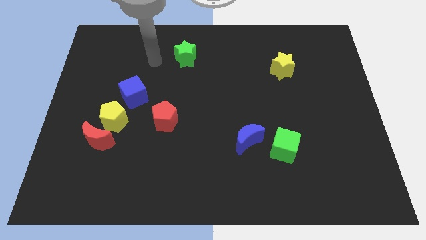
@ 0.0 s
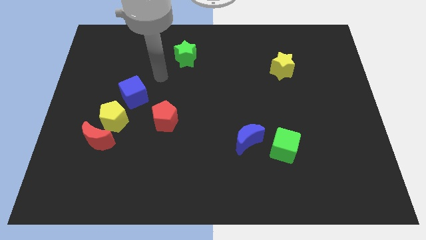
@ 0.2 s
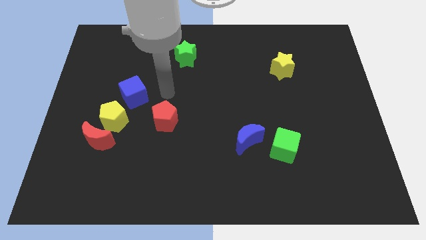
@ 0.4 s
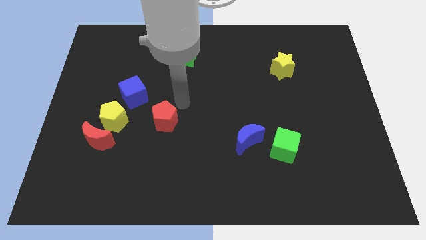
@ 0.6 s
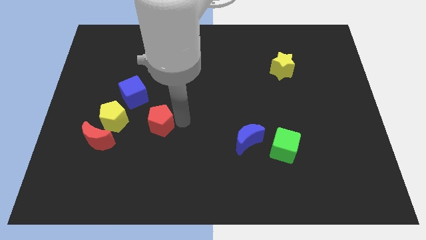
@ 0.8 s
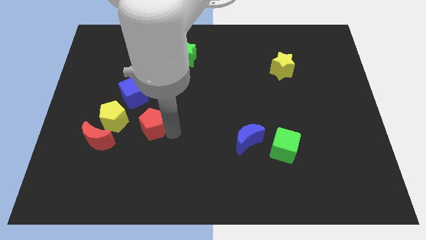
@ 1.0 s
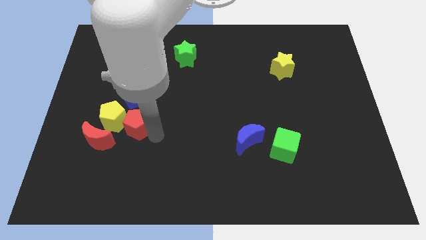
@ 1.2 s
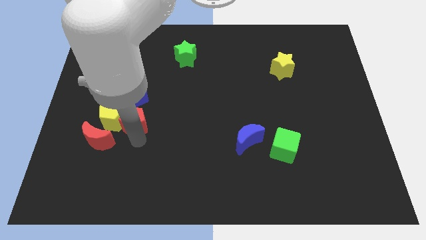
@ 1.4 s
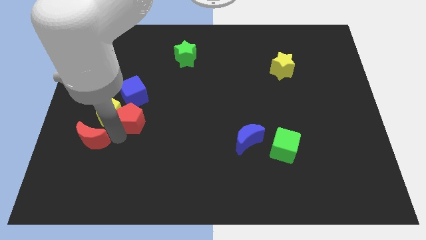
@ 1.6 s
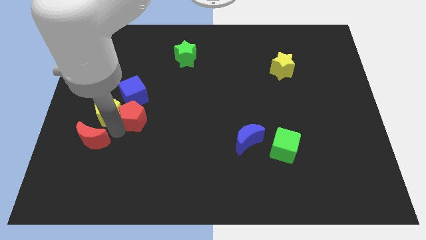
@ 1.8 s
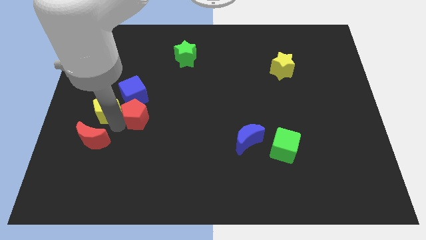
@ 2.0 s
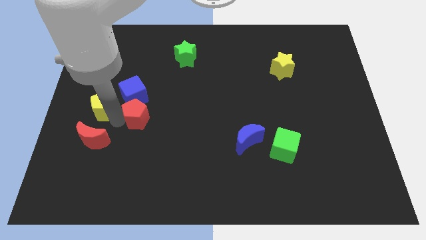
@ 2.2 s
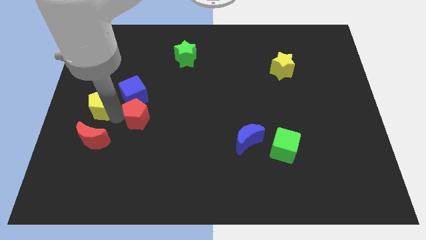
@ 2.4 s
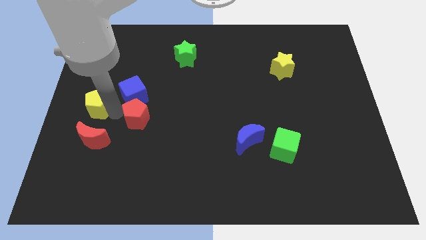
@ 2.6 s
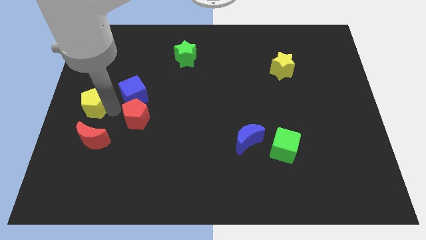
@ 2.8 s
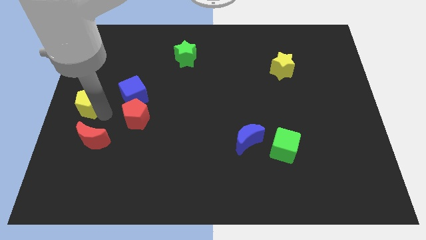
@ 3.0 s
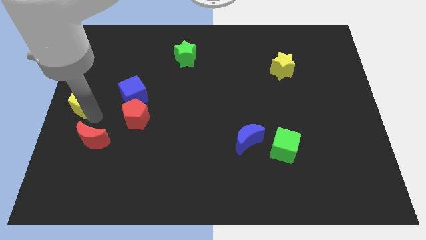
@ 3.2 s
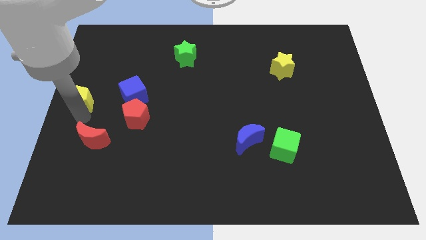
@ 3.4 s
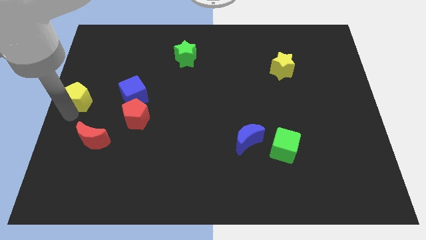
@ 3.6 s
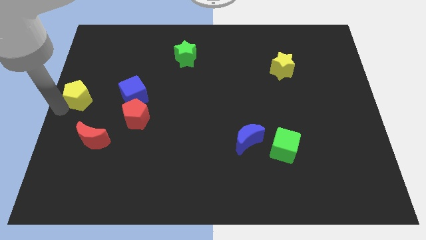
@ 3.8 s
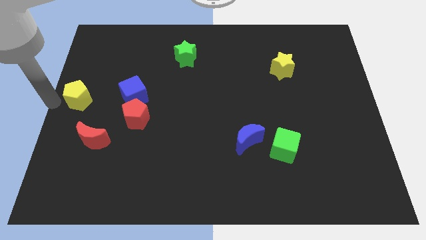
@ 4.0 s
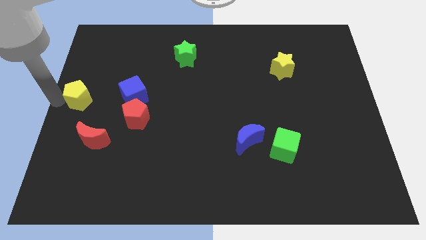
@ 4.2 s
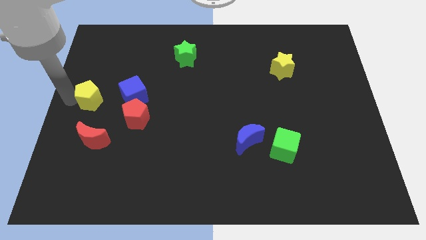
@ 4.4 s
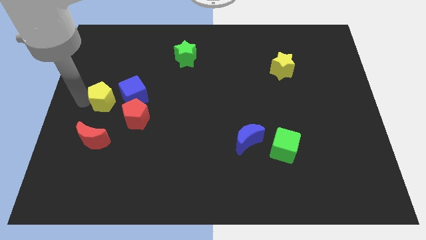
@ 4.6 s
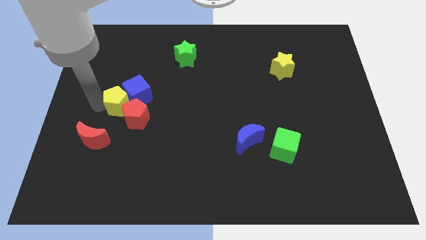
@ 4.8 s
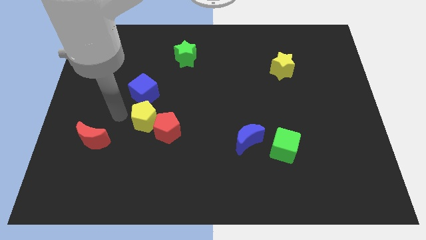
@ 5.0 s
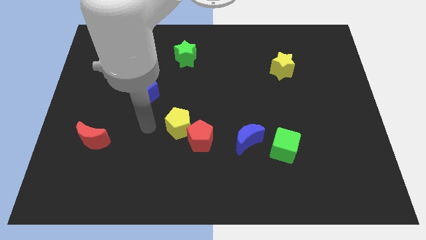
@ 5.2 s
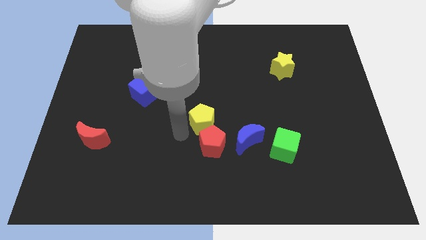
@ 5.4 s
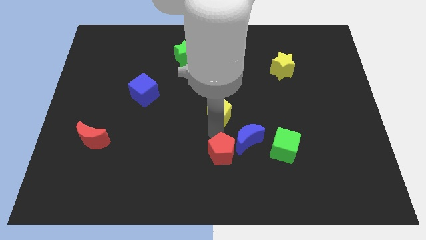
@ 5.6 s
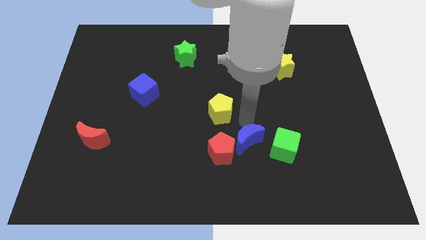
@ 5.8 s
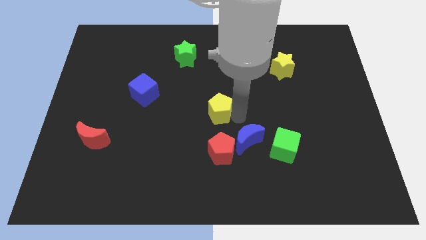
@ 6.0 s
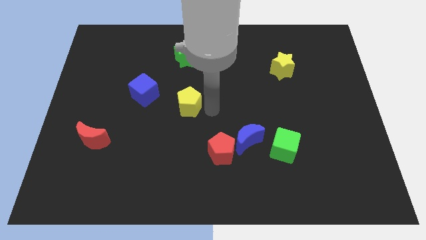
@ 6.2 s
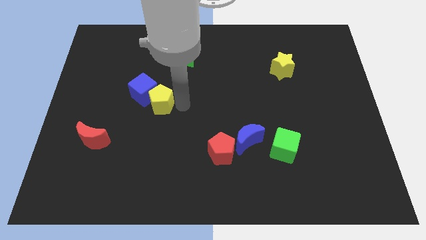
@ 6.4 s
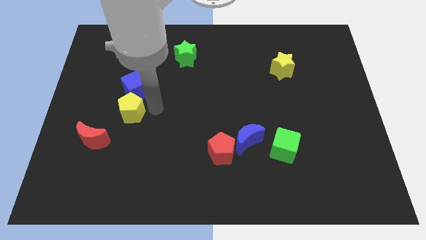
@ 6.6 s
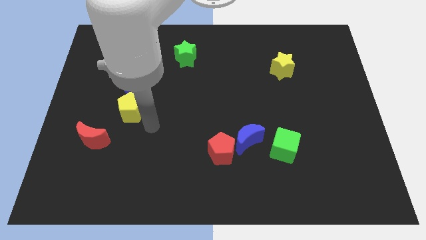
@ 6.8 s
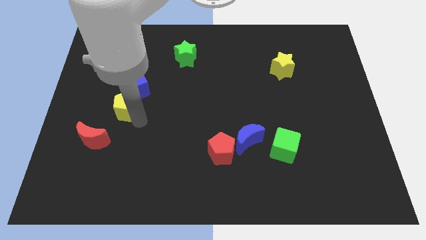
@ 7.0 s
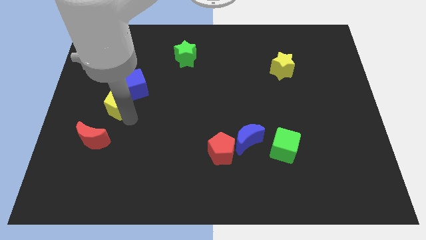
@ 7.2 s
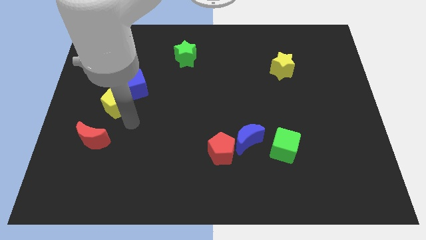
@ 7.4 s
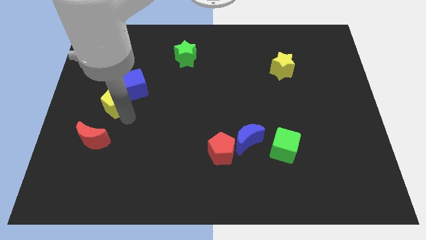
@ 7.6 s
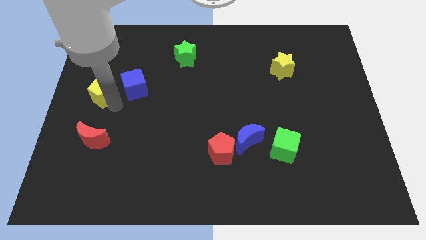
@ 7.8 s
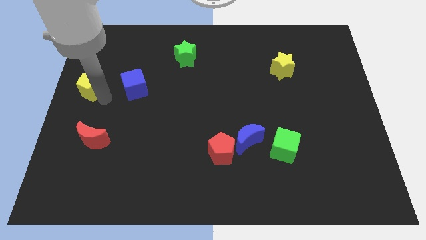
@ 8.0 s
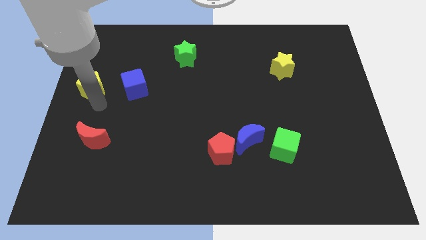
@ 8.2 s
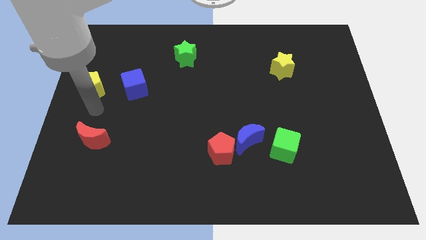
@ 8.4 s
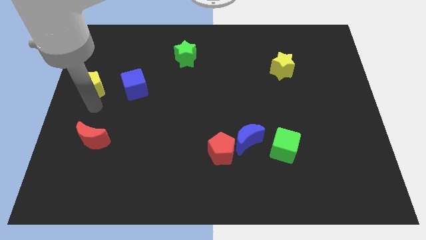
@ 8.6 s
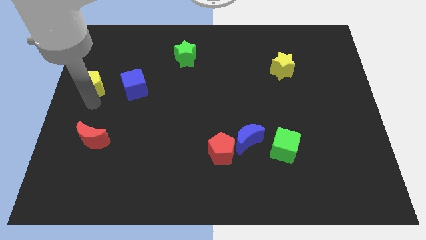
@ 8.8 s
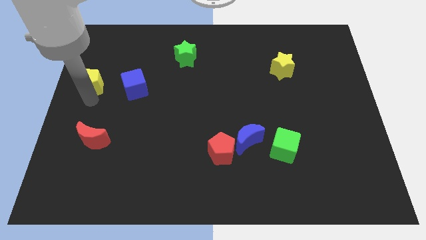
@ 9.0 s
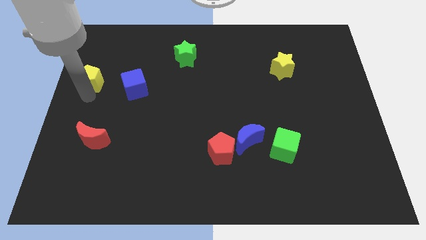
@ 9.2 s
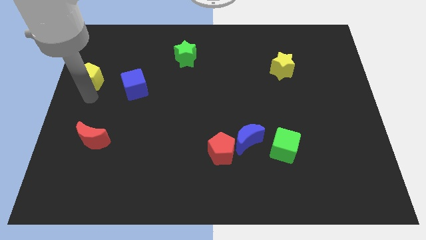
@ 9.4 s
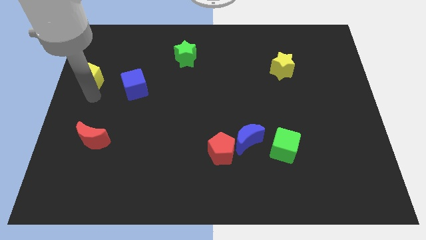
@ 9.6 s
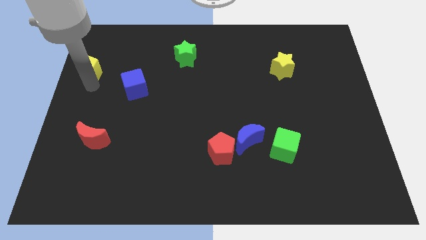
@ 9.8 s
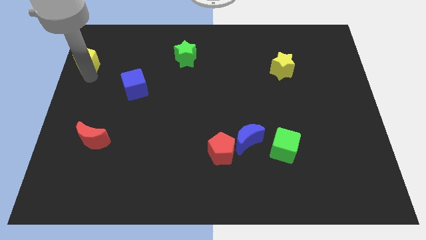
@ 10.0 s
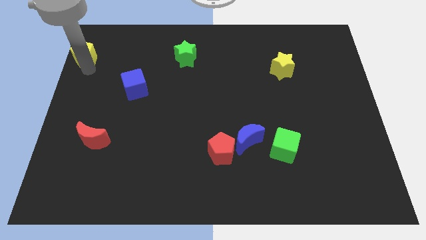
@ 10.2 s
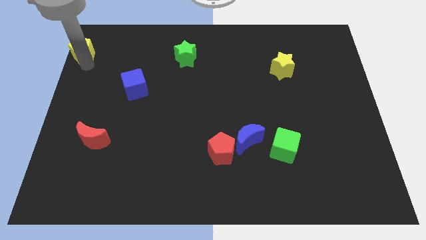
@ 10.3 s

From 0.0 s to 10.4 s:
push the yellow pentagon to the upper left corner

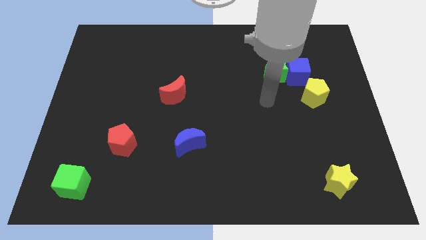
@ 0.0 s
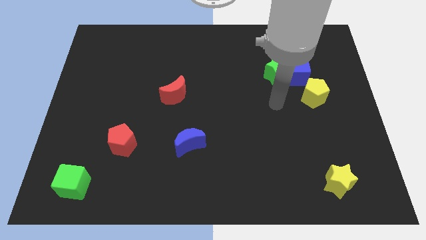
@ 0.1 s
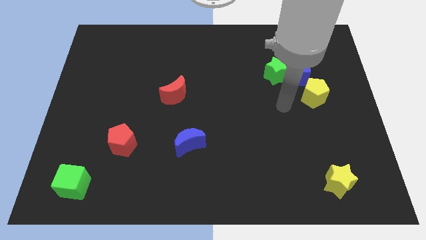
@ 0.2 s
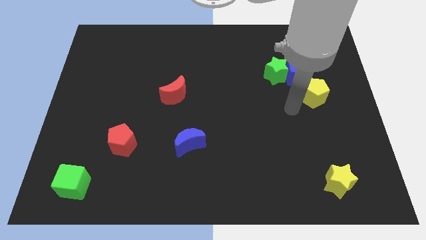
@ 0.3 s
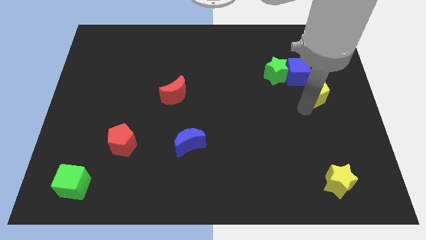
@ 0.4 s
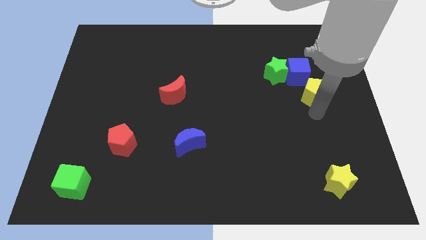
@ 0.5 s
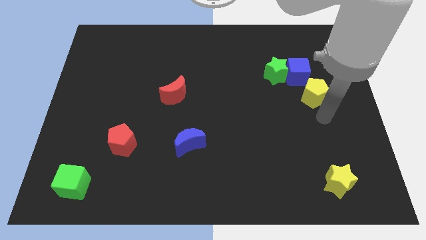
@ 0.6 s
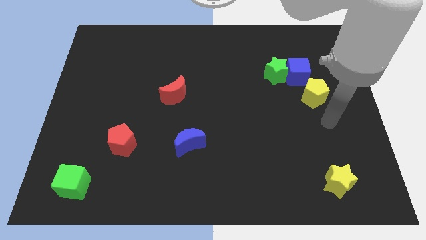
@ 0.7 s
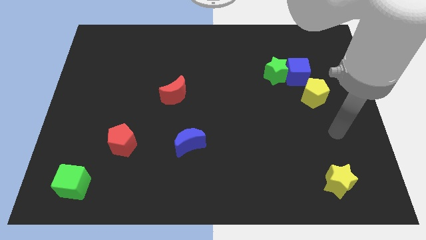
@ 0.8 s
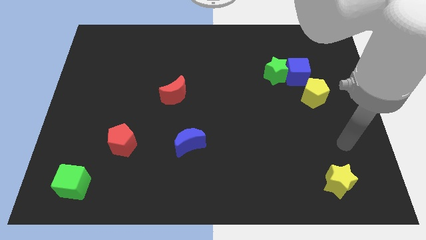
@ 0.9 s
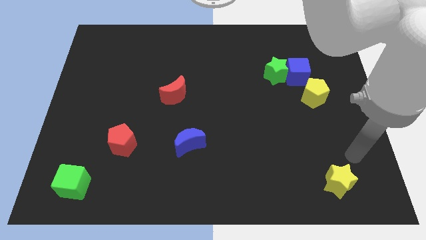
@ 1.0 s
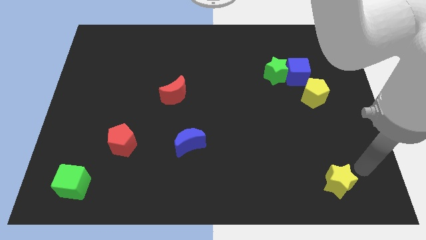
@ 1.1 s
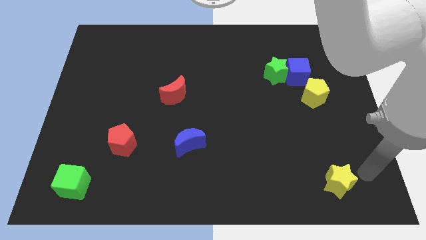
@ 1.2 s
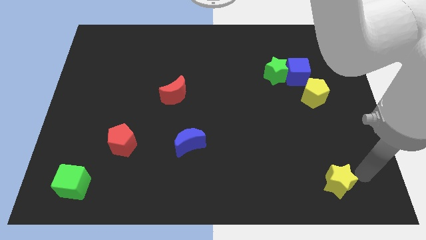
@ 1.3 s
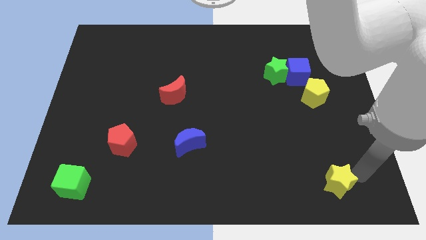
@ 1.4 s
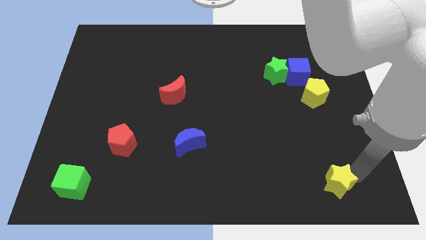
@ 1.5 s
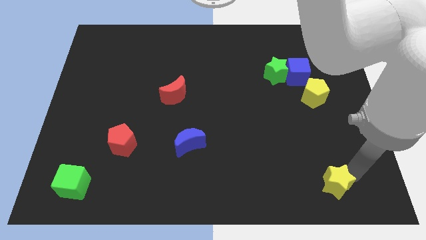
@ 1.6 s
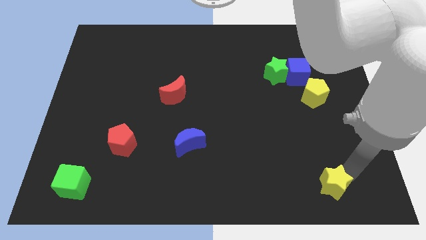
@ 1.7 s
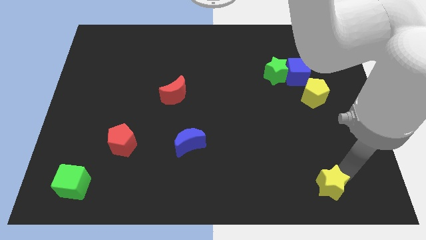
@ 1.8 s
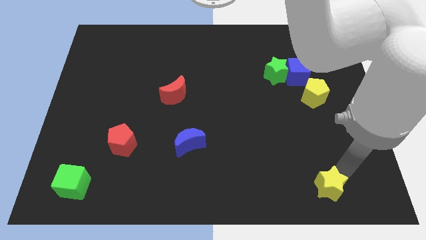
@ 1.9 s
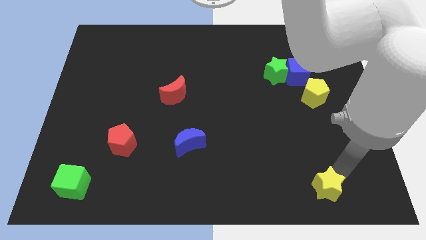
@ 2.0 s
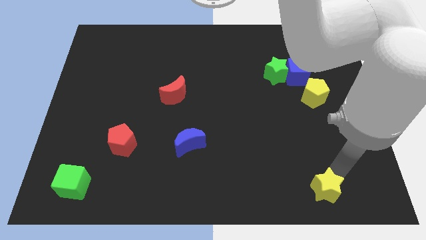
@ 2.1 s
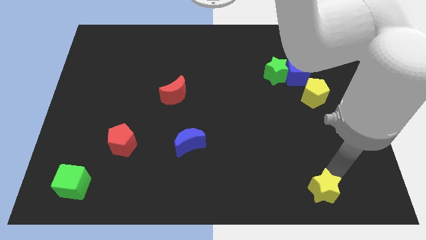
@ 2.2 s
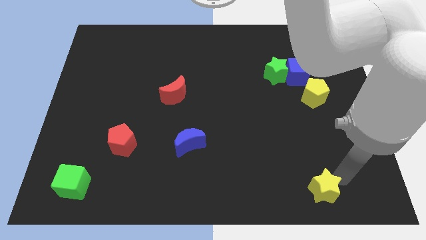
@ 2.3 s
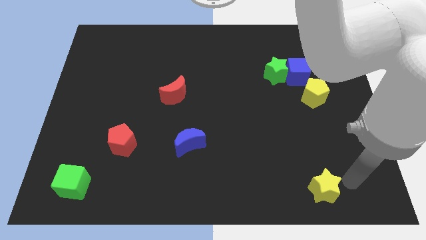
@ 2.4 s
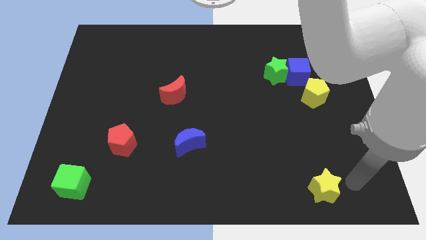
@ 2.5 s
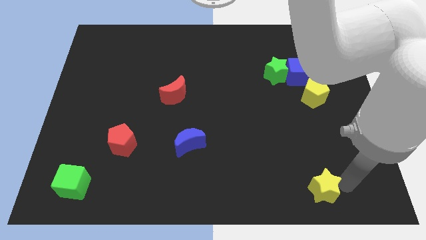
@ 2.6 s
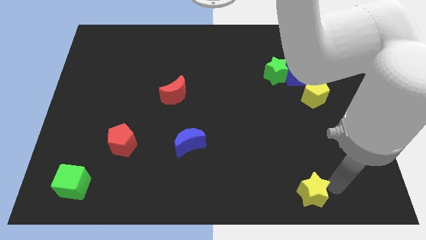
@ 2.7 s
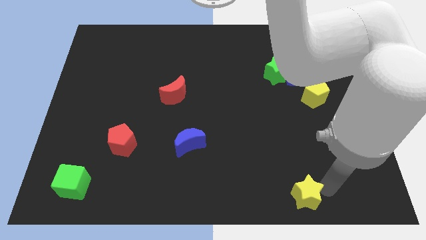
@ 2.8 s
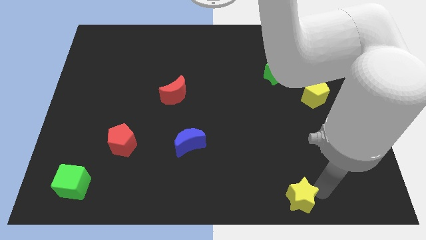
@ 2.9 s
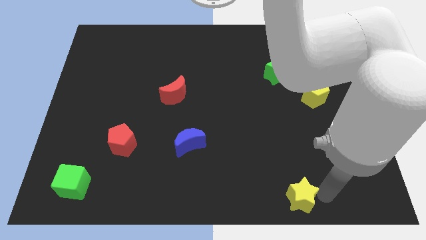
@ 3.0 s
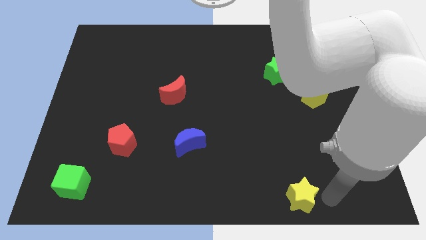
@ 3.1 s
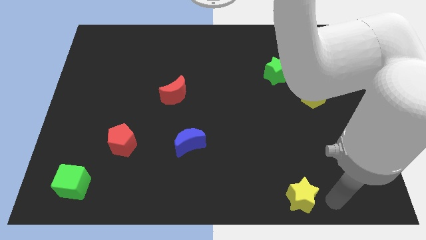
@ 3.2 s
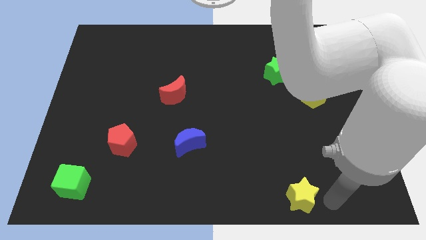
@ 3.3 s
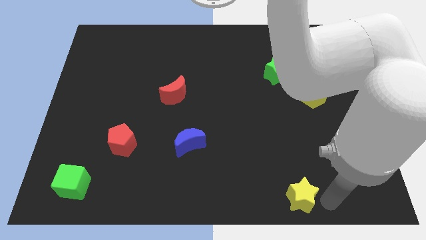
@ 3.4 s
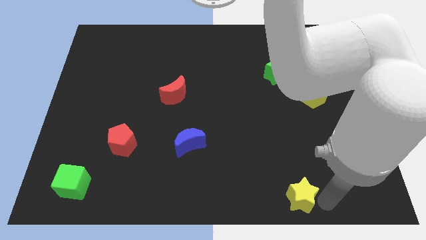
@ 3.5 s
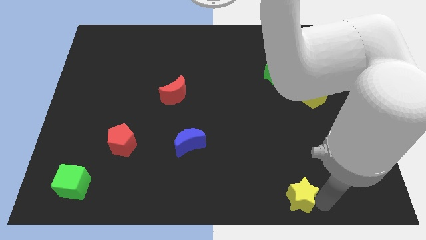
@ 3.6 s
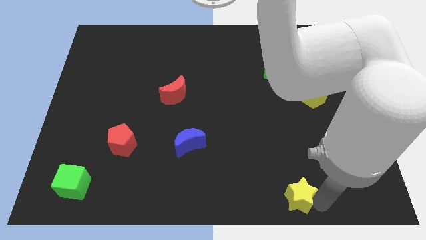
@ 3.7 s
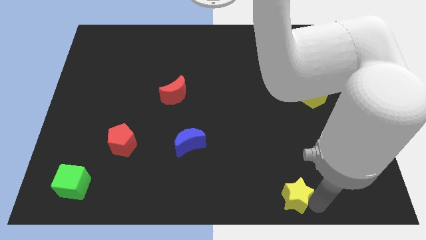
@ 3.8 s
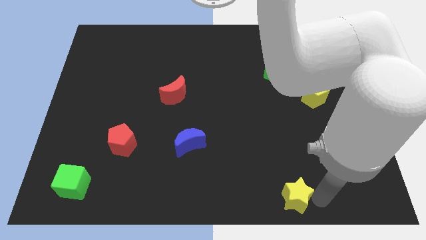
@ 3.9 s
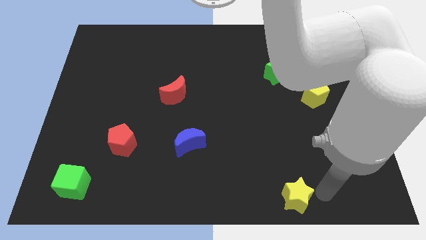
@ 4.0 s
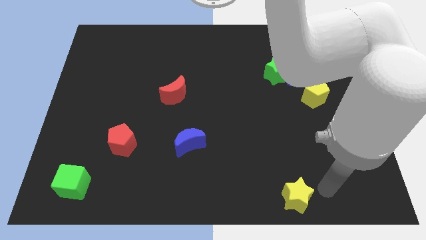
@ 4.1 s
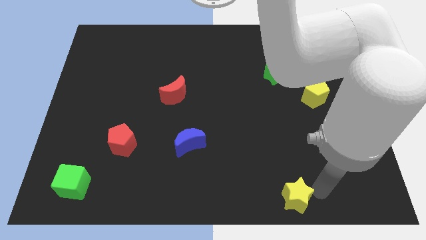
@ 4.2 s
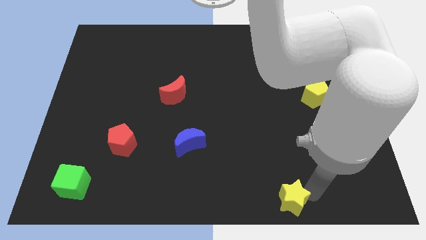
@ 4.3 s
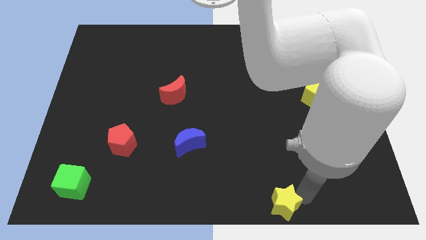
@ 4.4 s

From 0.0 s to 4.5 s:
slide the yellow star to the bottom side
